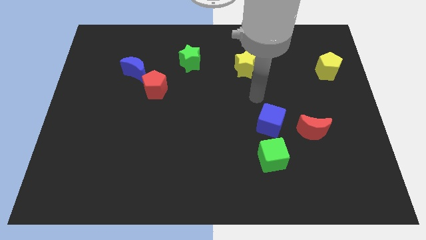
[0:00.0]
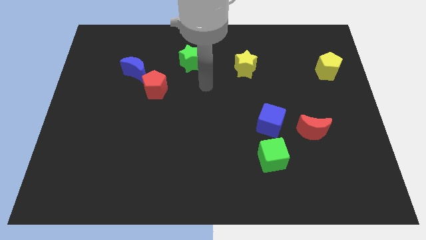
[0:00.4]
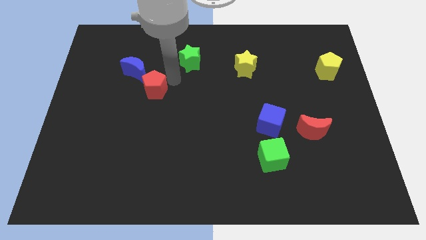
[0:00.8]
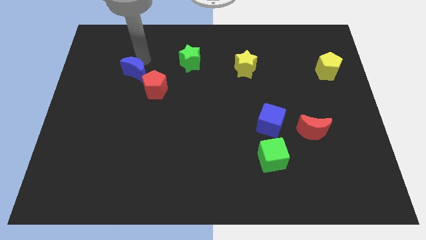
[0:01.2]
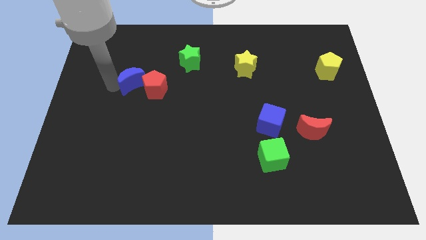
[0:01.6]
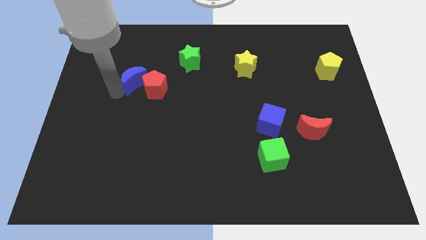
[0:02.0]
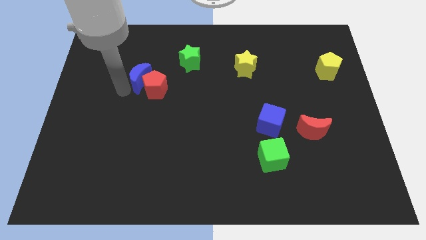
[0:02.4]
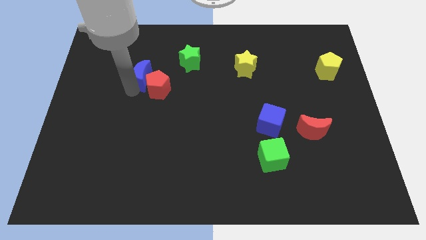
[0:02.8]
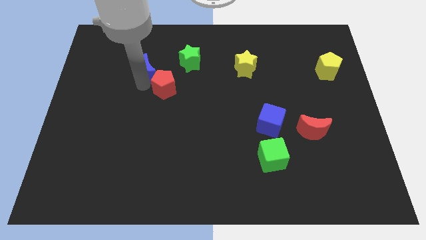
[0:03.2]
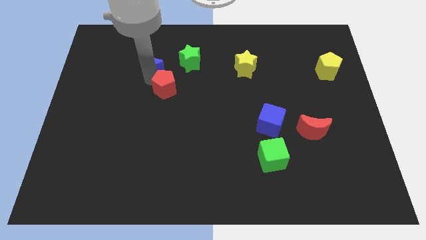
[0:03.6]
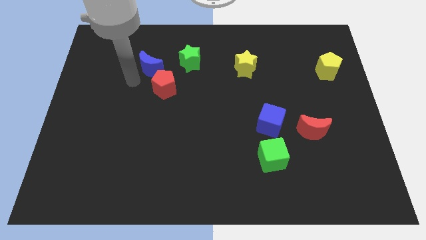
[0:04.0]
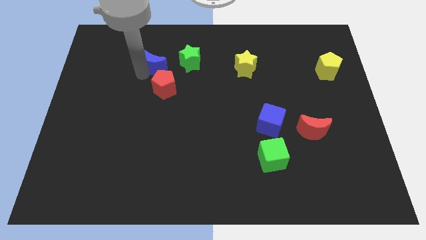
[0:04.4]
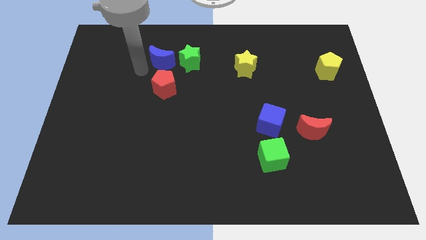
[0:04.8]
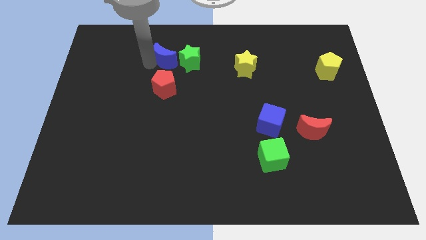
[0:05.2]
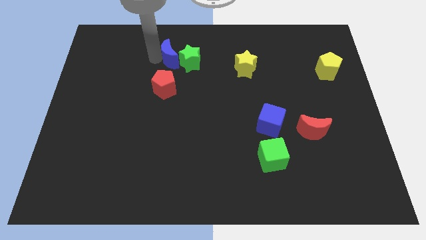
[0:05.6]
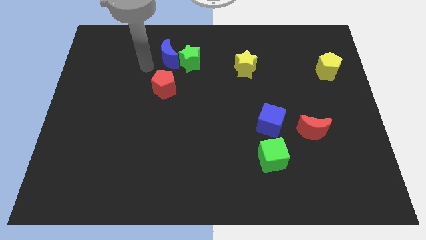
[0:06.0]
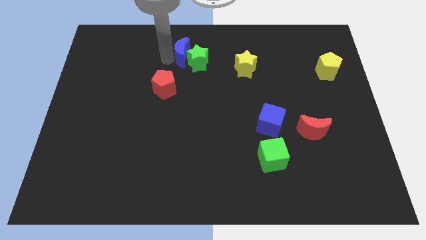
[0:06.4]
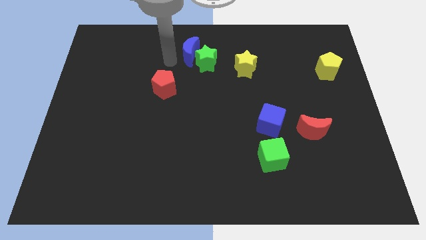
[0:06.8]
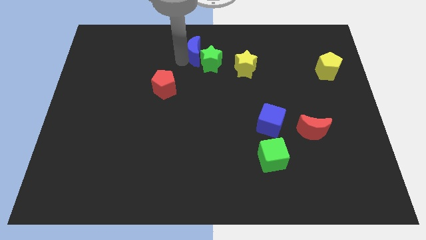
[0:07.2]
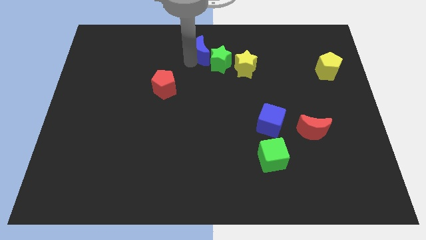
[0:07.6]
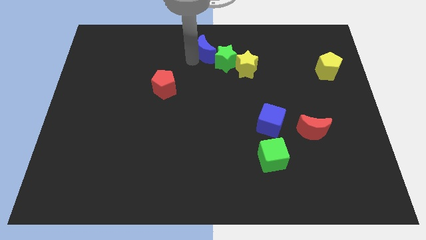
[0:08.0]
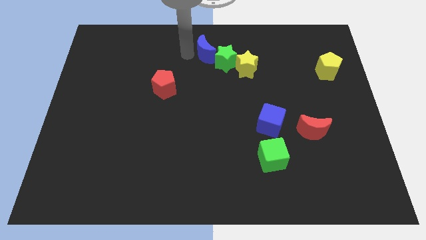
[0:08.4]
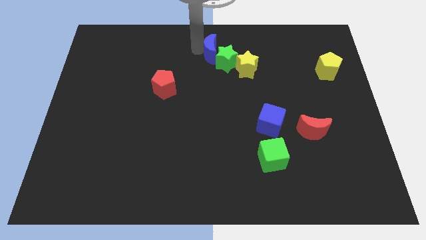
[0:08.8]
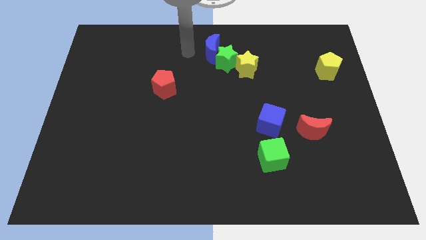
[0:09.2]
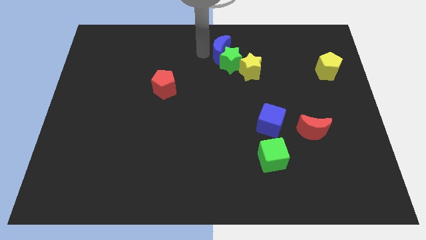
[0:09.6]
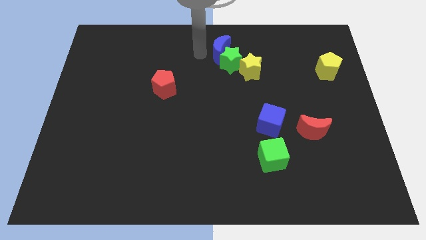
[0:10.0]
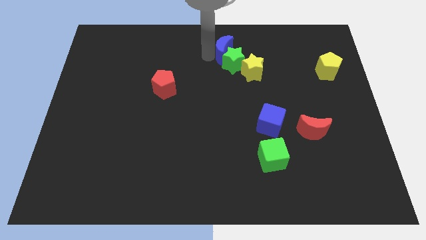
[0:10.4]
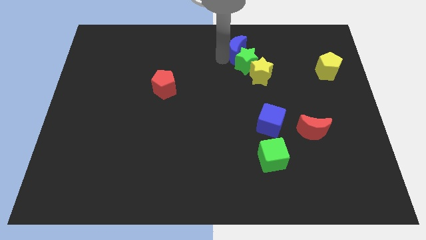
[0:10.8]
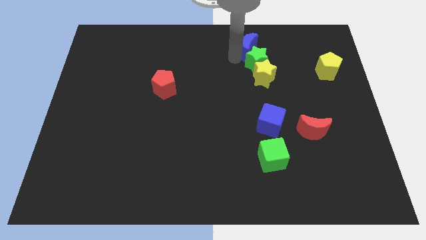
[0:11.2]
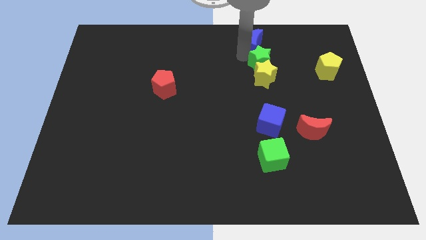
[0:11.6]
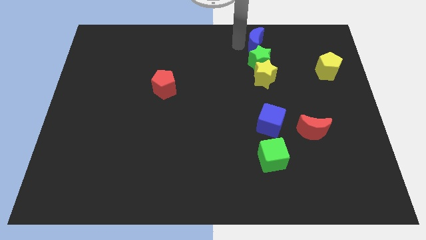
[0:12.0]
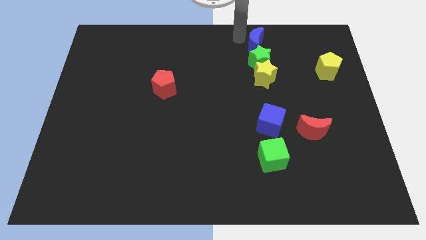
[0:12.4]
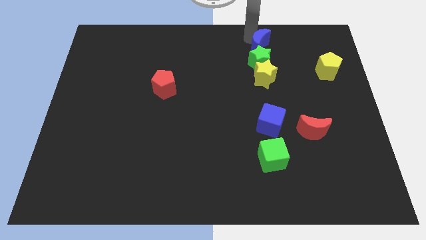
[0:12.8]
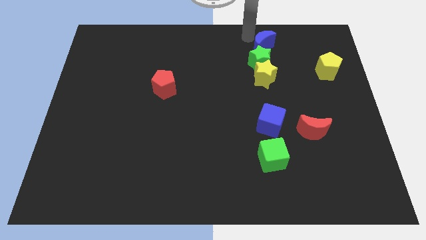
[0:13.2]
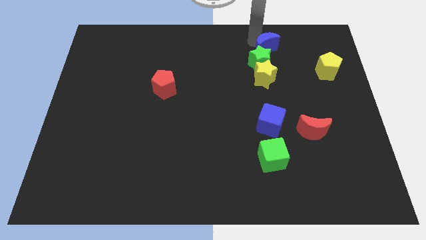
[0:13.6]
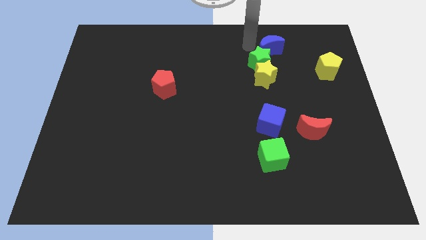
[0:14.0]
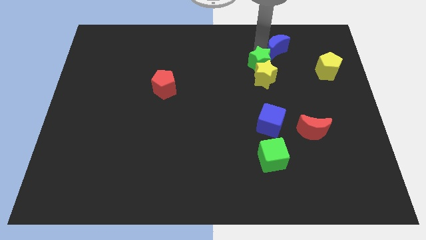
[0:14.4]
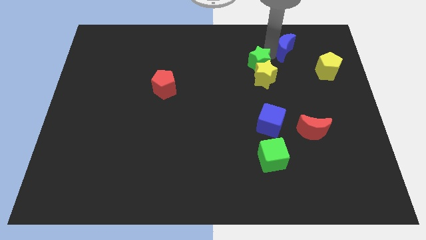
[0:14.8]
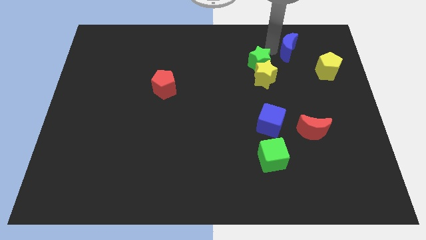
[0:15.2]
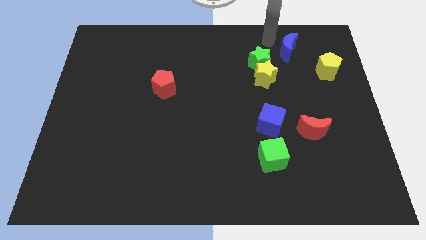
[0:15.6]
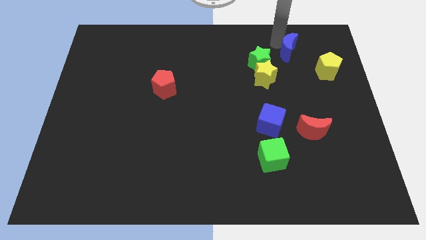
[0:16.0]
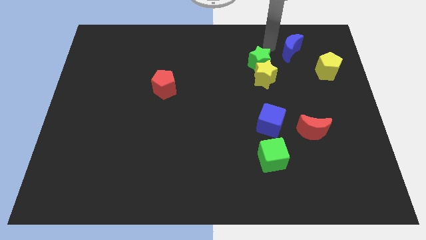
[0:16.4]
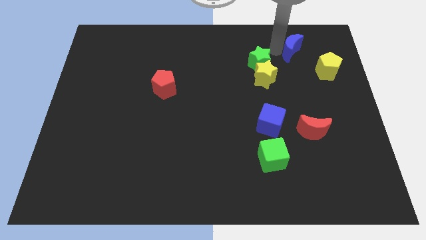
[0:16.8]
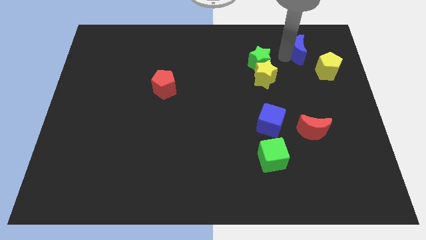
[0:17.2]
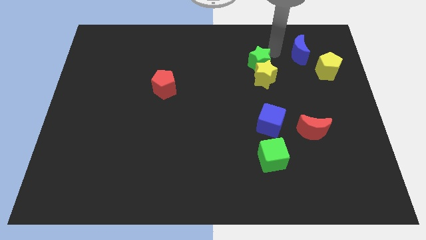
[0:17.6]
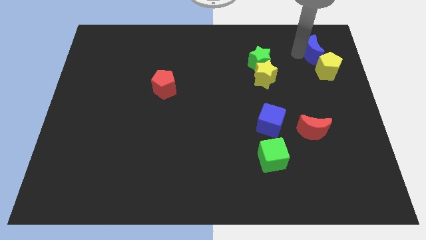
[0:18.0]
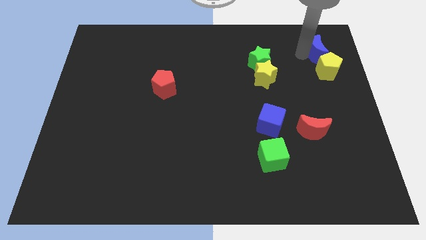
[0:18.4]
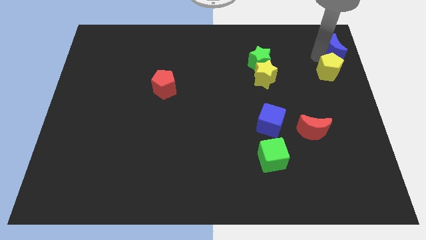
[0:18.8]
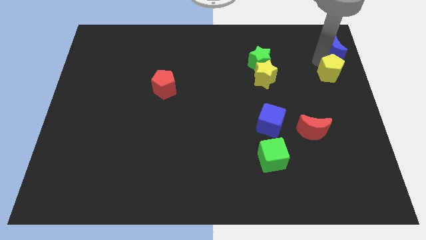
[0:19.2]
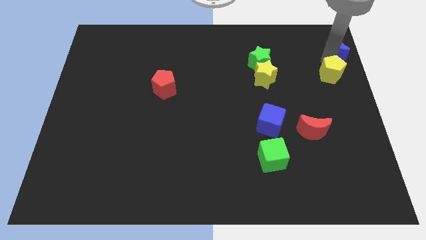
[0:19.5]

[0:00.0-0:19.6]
put the blue moon to the top right corner

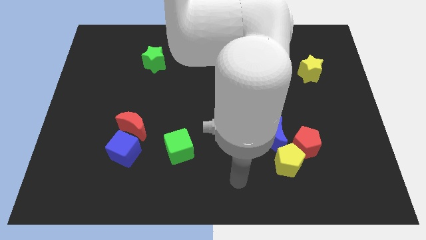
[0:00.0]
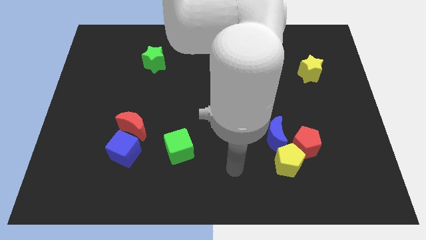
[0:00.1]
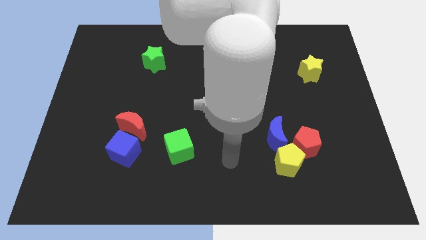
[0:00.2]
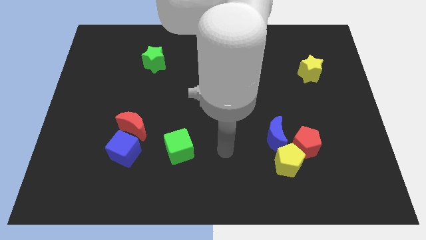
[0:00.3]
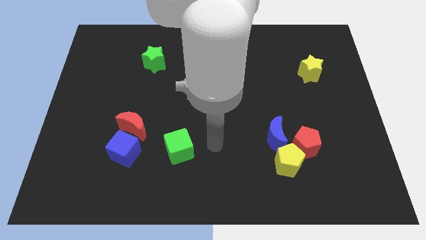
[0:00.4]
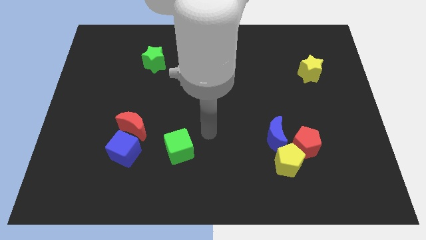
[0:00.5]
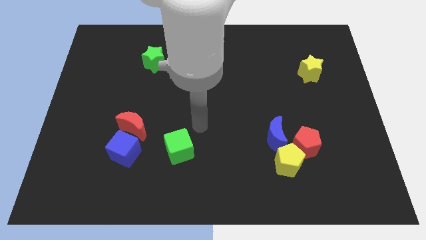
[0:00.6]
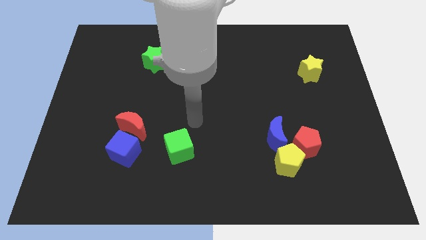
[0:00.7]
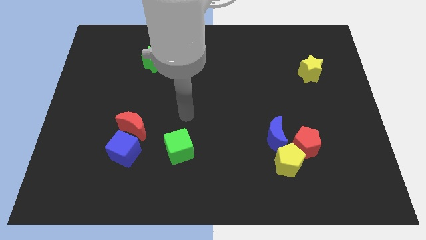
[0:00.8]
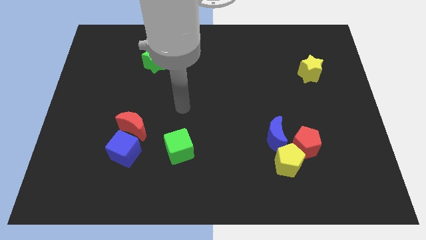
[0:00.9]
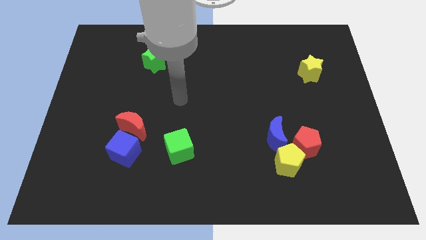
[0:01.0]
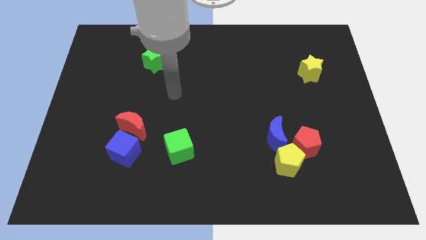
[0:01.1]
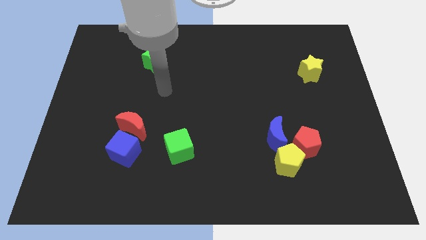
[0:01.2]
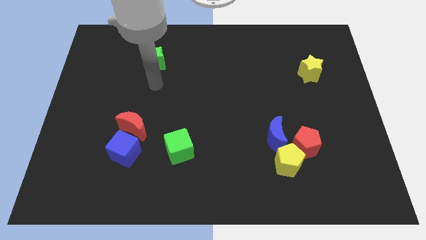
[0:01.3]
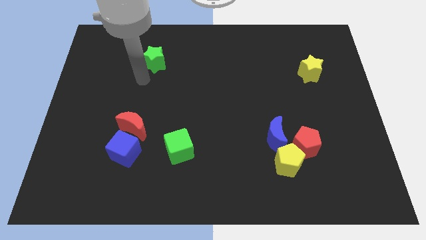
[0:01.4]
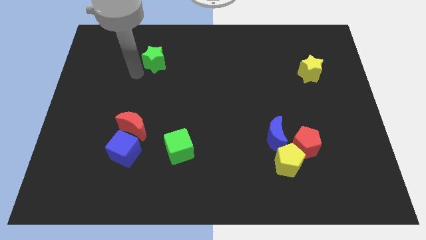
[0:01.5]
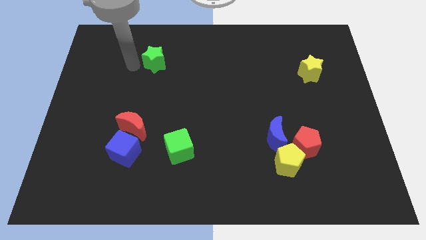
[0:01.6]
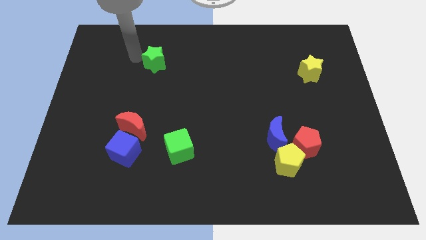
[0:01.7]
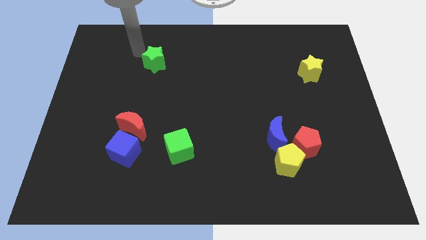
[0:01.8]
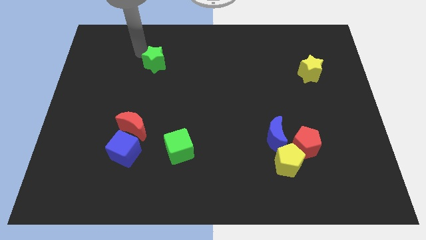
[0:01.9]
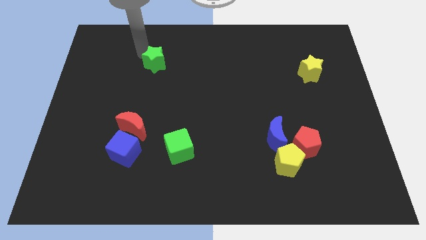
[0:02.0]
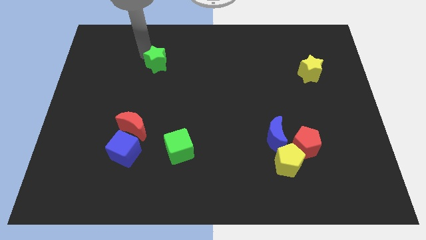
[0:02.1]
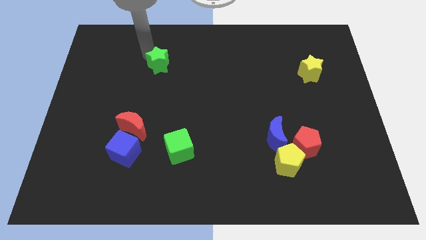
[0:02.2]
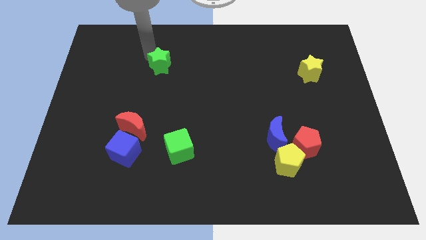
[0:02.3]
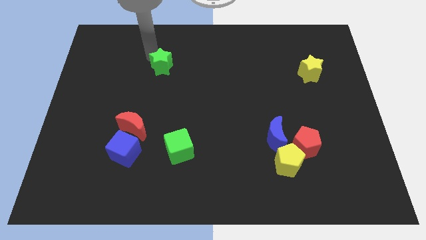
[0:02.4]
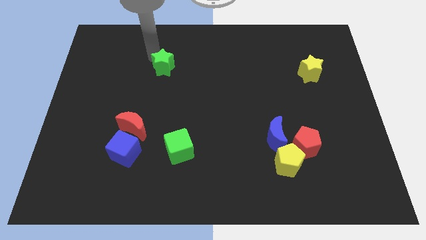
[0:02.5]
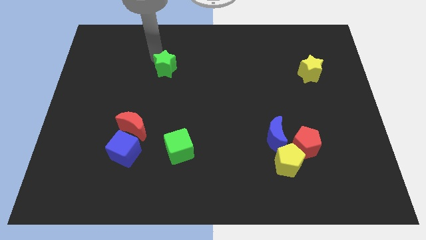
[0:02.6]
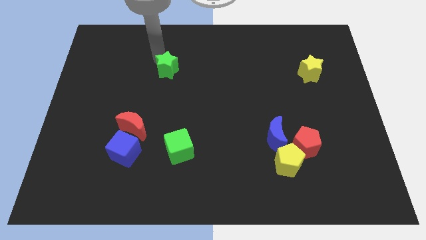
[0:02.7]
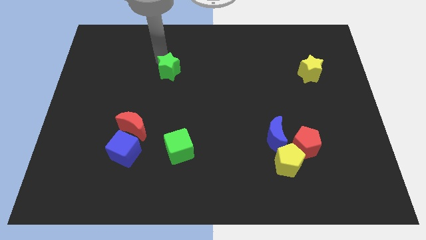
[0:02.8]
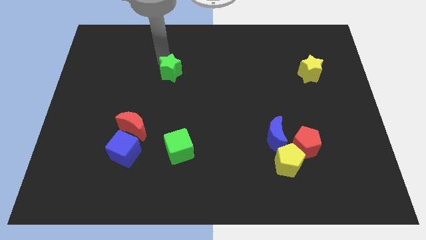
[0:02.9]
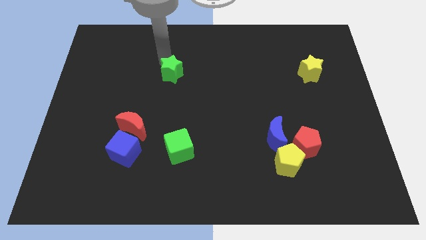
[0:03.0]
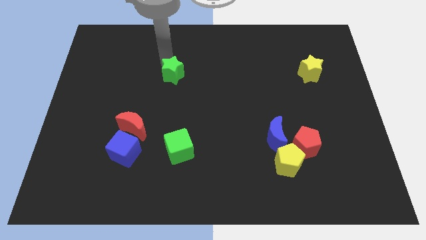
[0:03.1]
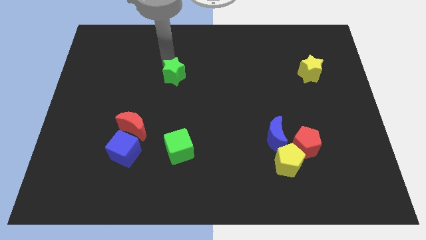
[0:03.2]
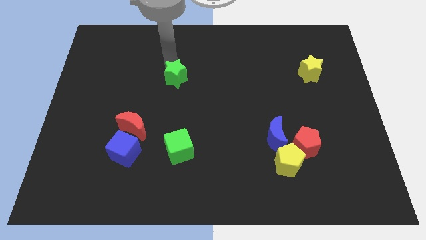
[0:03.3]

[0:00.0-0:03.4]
move the green star to the center of the board
